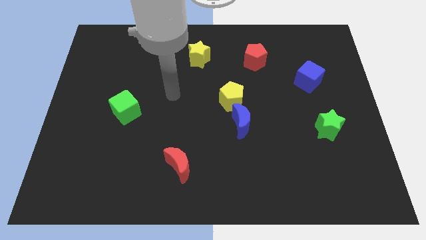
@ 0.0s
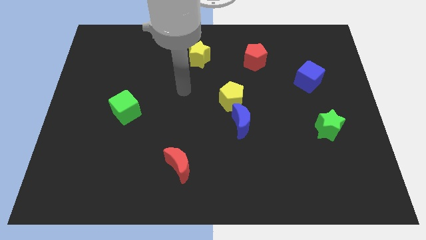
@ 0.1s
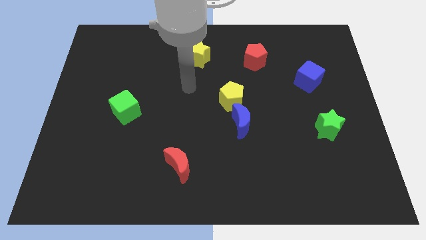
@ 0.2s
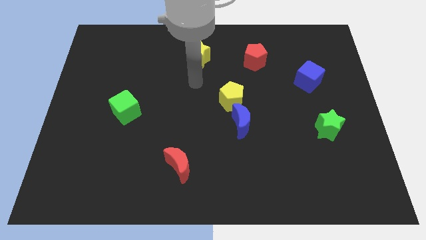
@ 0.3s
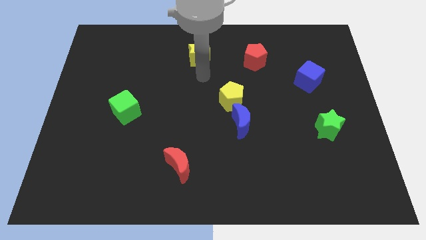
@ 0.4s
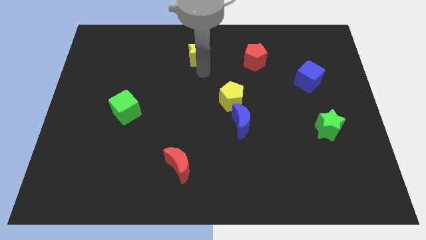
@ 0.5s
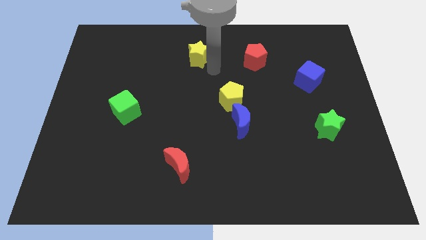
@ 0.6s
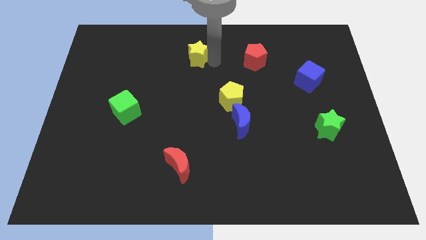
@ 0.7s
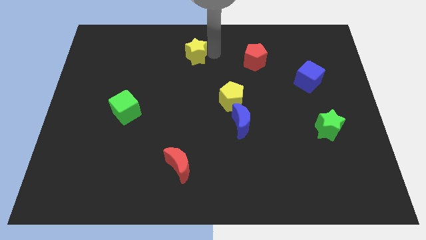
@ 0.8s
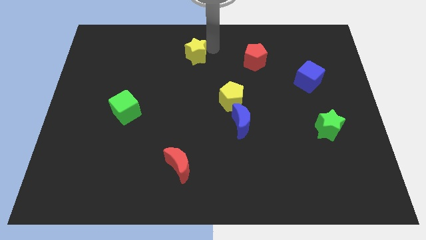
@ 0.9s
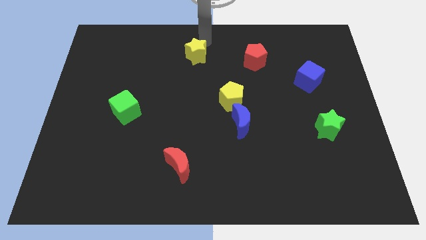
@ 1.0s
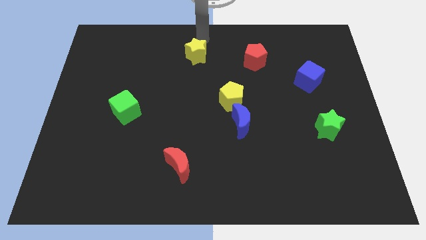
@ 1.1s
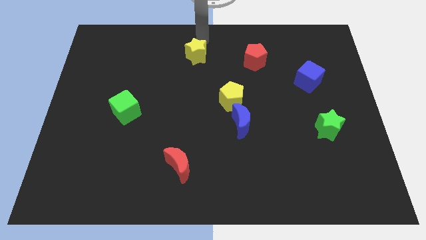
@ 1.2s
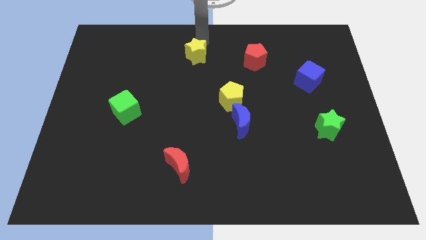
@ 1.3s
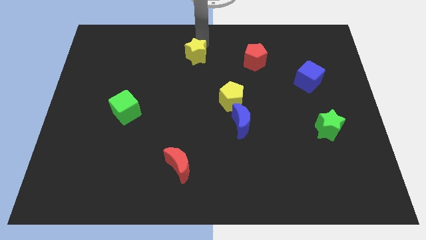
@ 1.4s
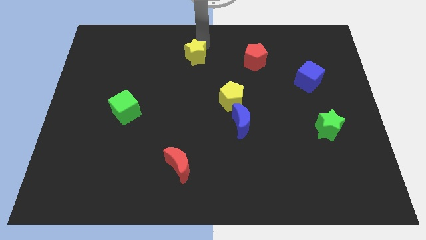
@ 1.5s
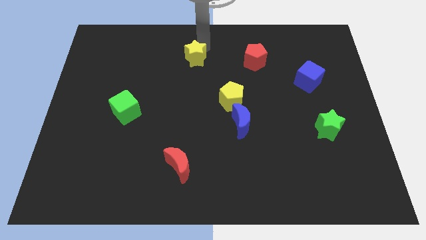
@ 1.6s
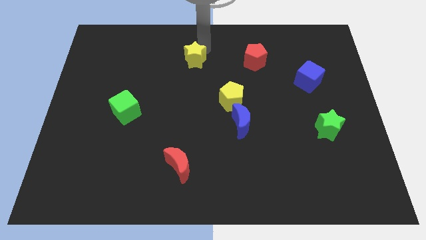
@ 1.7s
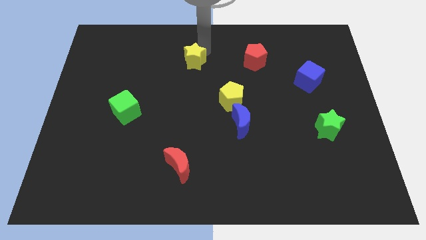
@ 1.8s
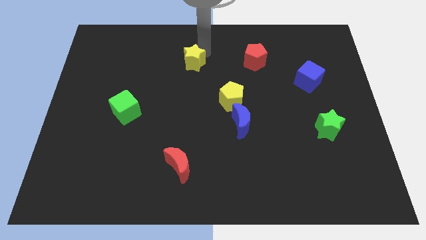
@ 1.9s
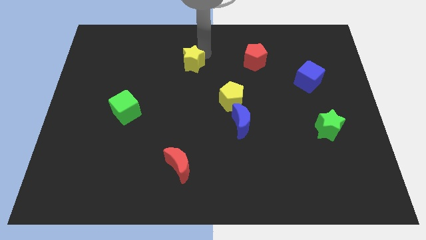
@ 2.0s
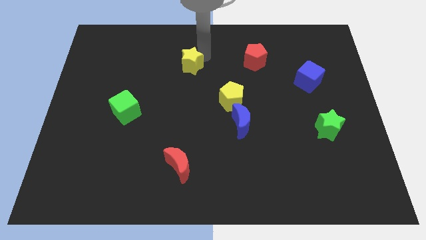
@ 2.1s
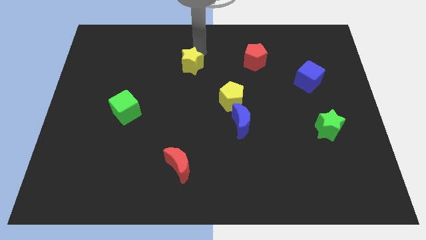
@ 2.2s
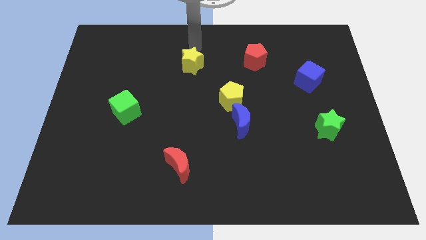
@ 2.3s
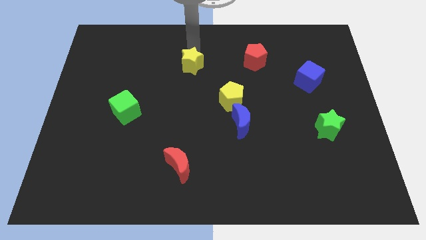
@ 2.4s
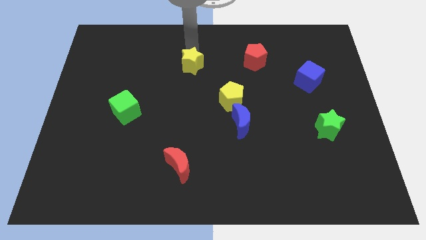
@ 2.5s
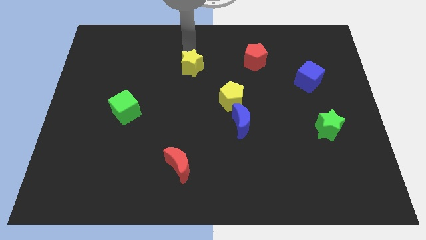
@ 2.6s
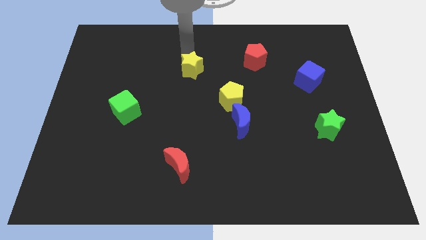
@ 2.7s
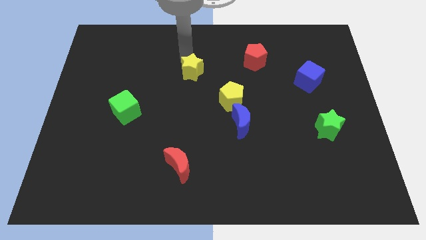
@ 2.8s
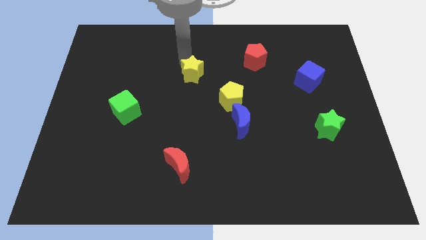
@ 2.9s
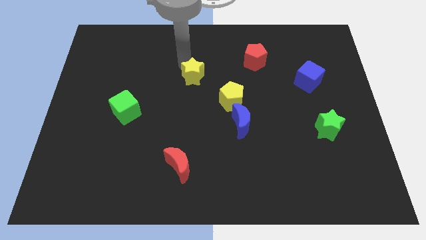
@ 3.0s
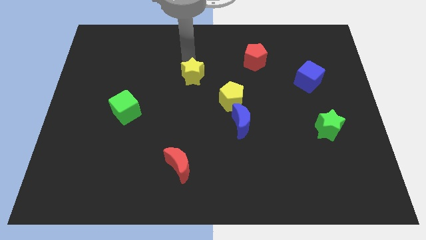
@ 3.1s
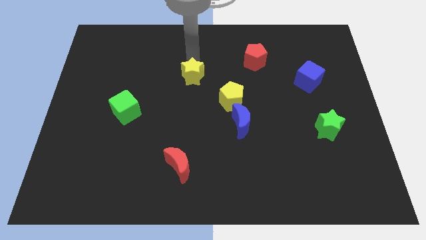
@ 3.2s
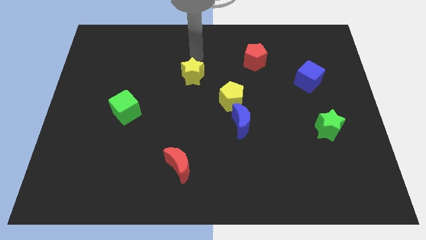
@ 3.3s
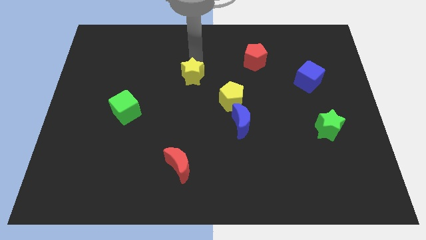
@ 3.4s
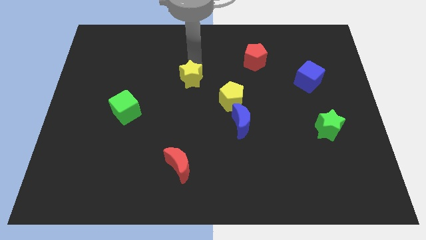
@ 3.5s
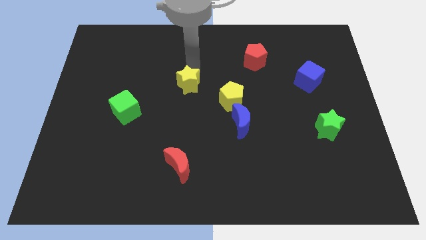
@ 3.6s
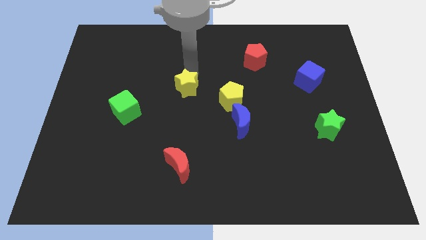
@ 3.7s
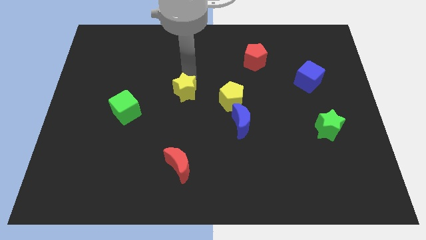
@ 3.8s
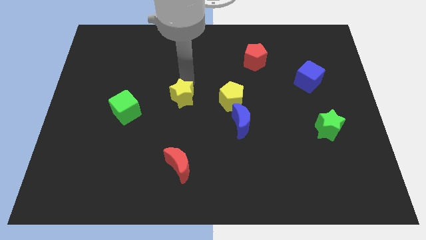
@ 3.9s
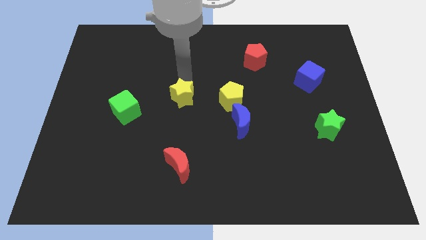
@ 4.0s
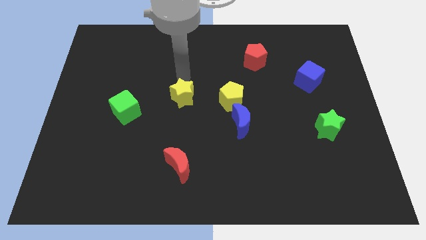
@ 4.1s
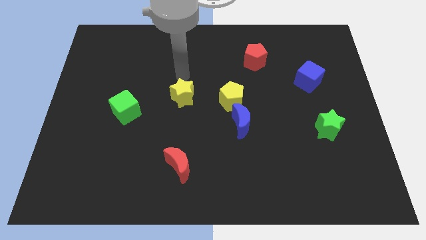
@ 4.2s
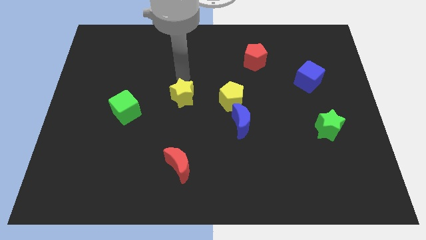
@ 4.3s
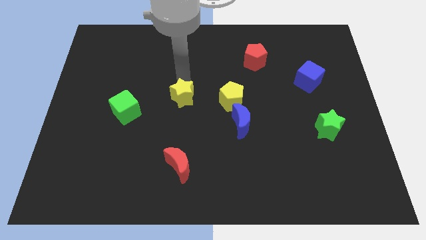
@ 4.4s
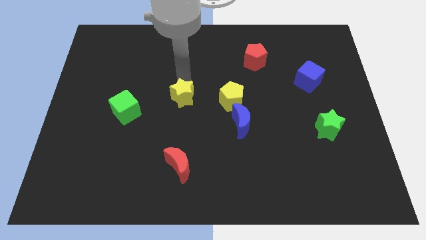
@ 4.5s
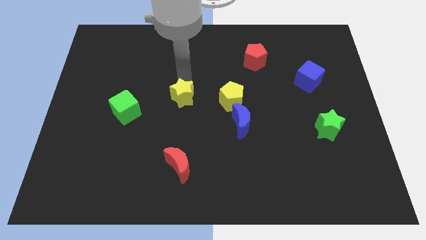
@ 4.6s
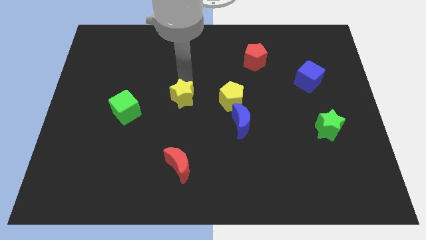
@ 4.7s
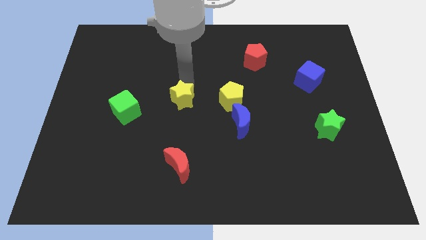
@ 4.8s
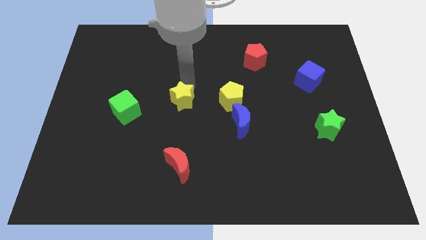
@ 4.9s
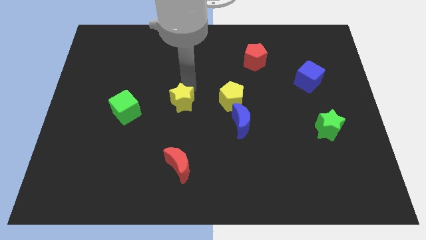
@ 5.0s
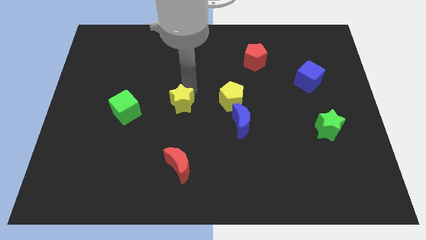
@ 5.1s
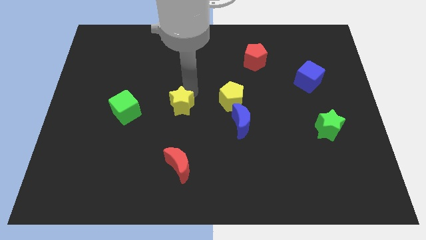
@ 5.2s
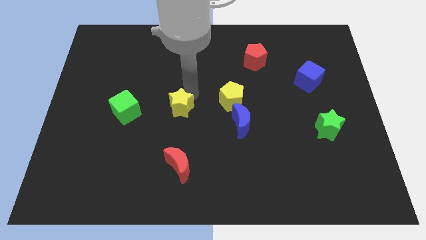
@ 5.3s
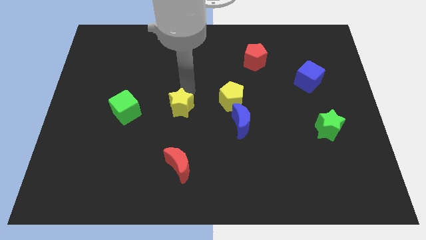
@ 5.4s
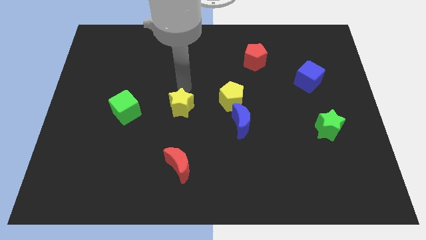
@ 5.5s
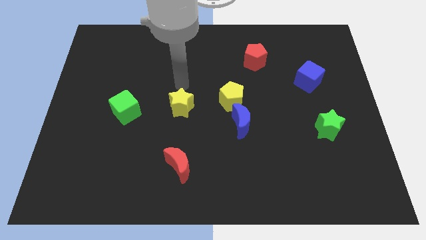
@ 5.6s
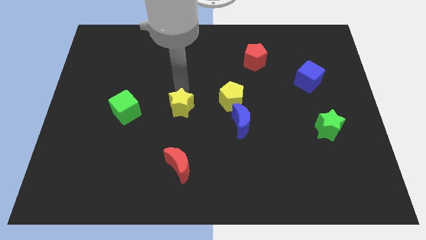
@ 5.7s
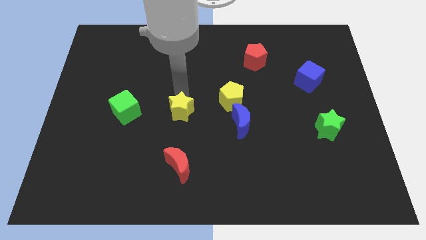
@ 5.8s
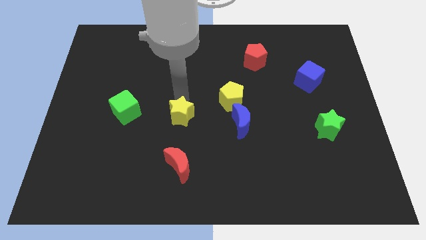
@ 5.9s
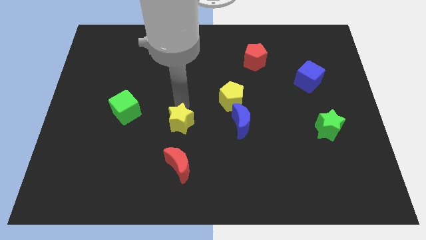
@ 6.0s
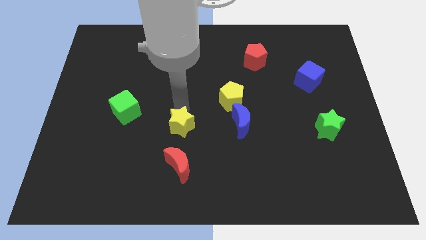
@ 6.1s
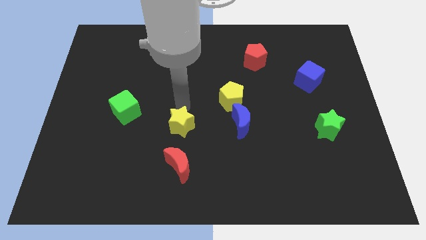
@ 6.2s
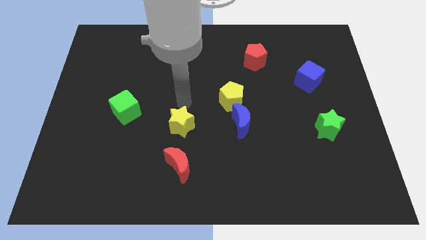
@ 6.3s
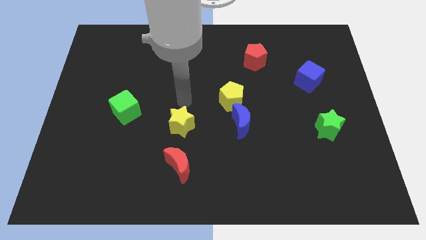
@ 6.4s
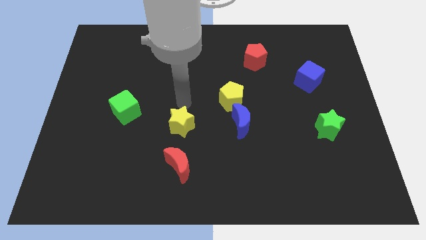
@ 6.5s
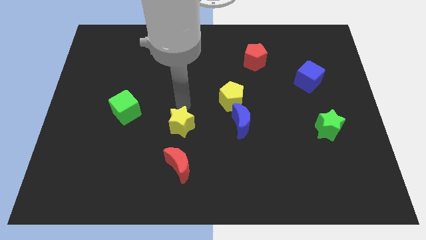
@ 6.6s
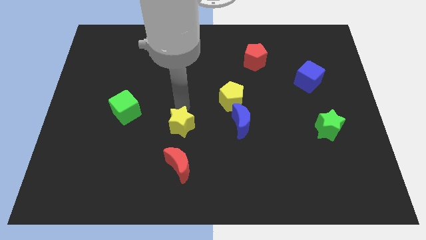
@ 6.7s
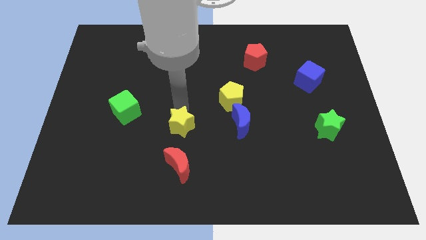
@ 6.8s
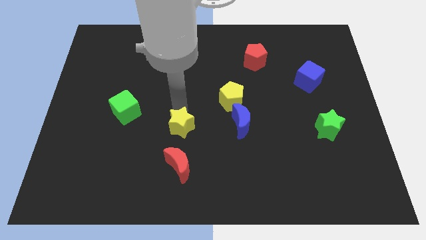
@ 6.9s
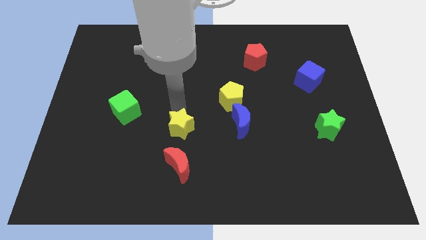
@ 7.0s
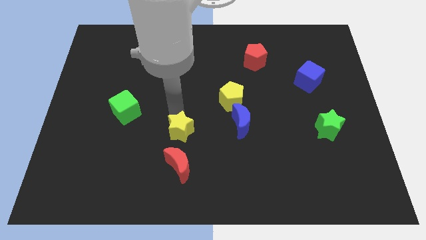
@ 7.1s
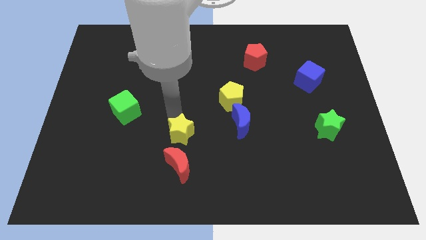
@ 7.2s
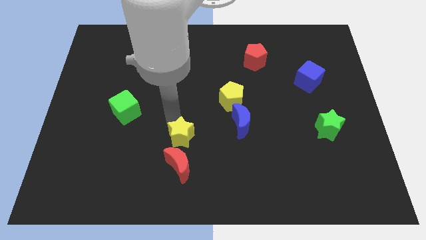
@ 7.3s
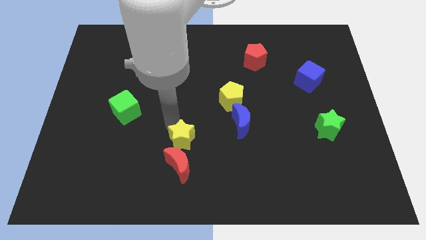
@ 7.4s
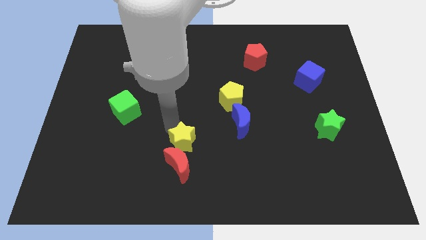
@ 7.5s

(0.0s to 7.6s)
push the yellow star close to the red moon

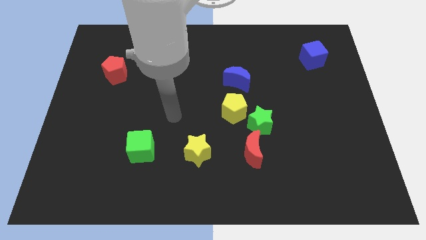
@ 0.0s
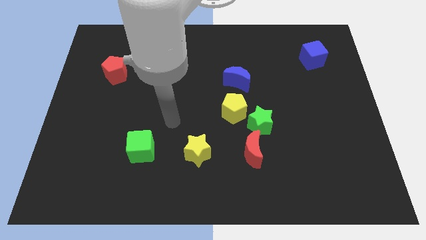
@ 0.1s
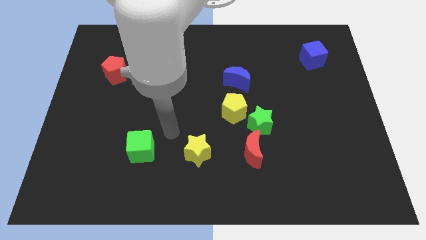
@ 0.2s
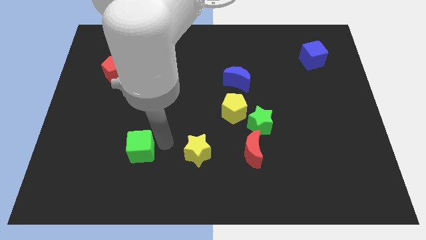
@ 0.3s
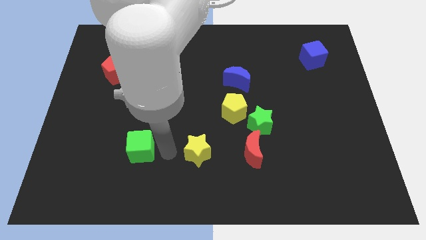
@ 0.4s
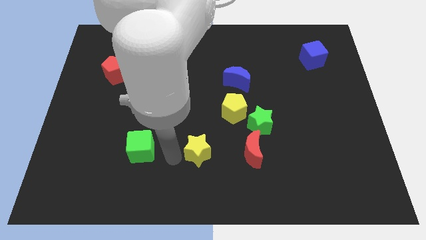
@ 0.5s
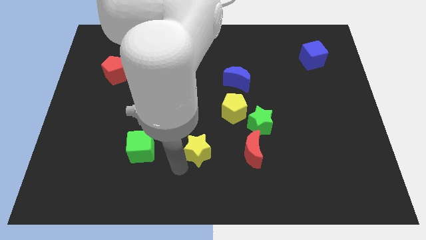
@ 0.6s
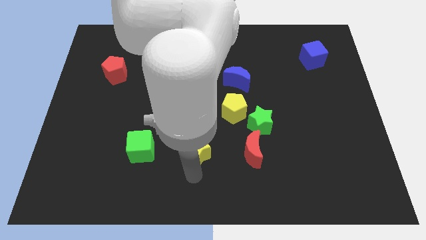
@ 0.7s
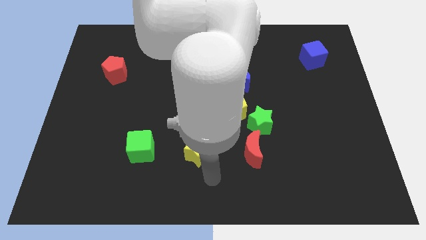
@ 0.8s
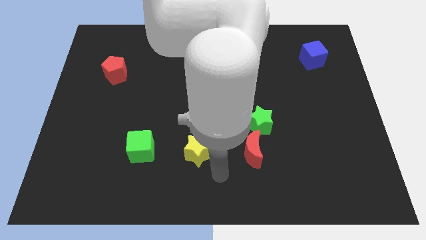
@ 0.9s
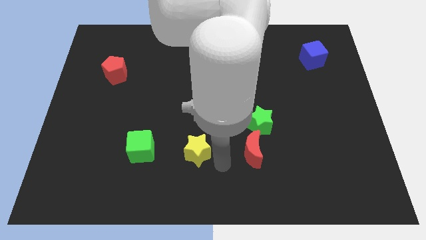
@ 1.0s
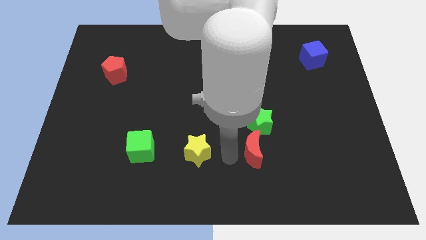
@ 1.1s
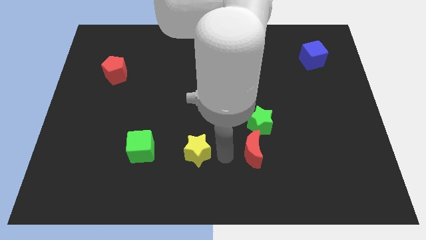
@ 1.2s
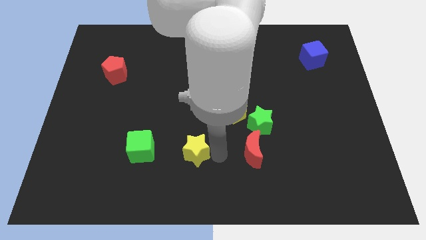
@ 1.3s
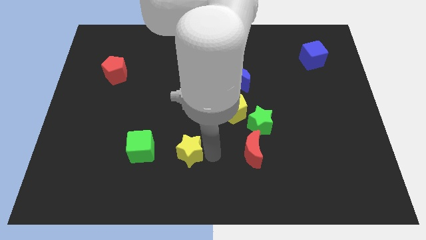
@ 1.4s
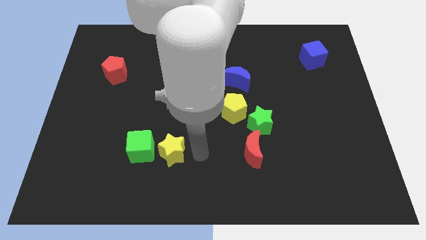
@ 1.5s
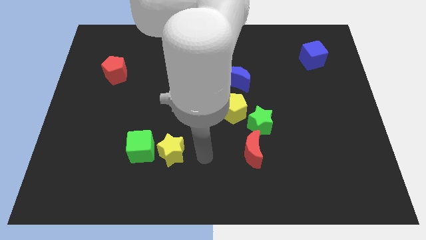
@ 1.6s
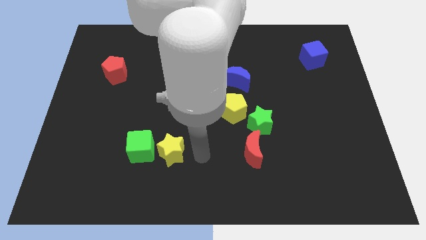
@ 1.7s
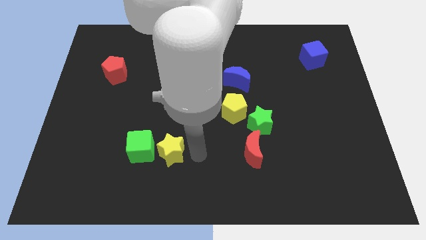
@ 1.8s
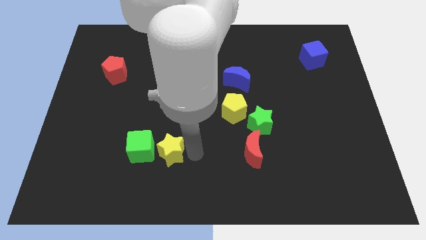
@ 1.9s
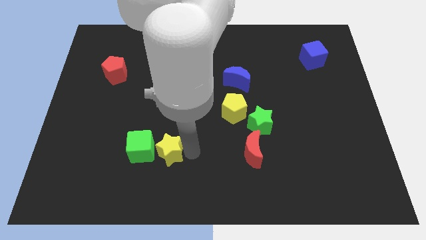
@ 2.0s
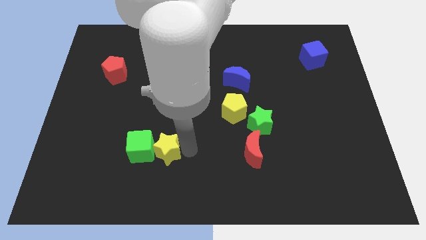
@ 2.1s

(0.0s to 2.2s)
slide the yellow star close to the green cube
